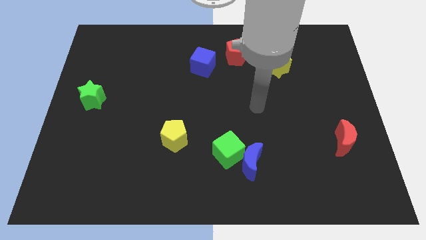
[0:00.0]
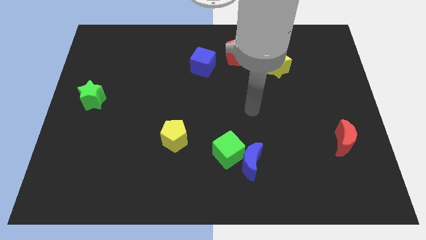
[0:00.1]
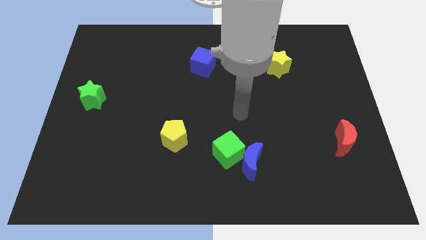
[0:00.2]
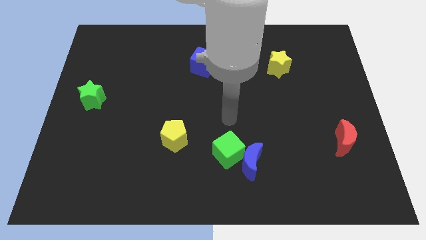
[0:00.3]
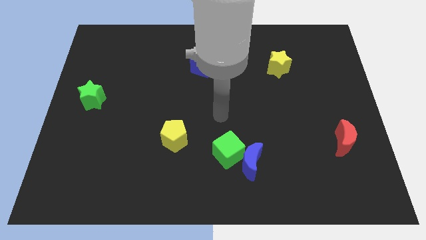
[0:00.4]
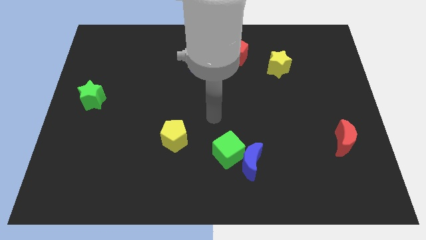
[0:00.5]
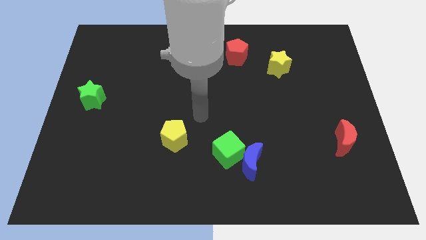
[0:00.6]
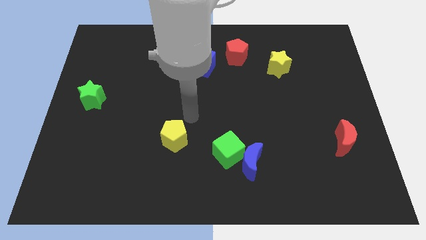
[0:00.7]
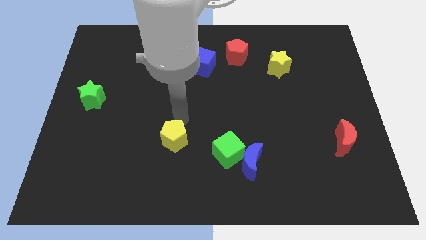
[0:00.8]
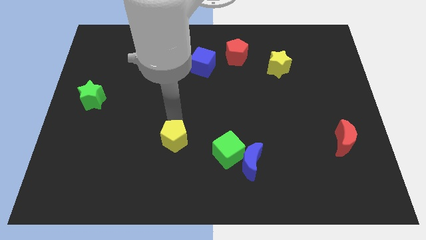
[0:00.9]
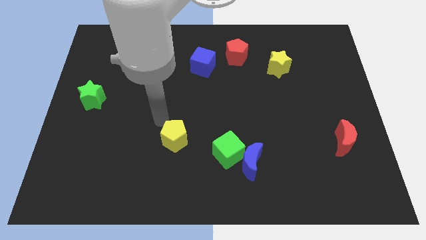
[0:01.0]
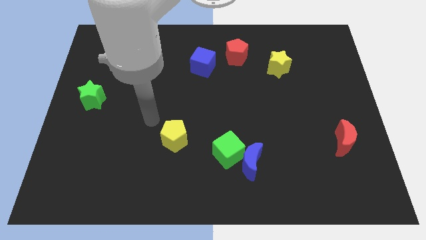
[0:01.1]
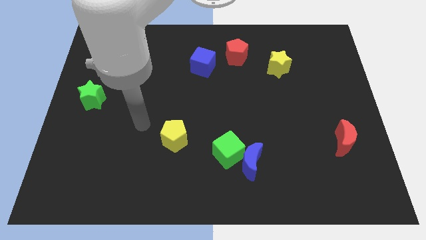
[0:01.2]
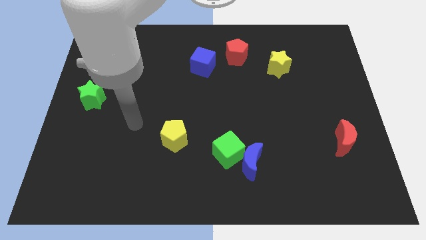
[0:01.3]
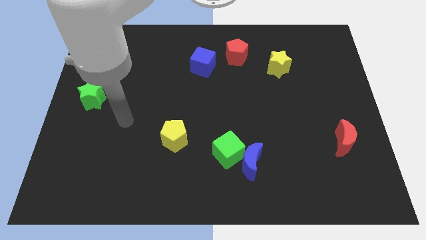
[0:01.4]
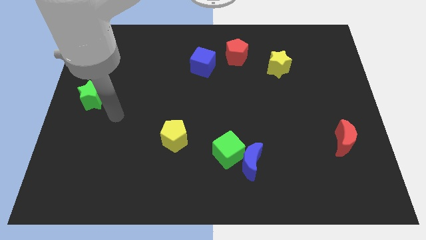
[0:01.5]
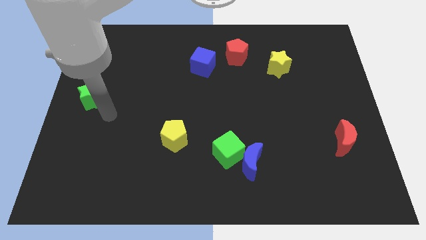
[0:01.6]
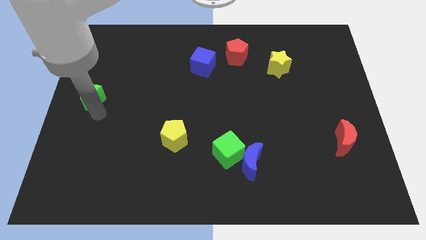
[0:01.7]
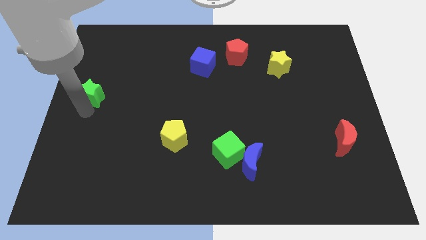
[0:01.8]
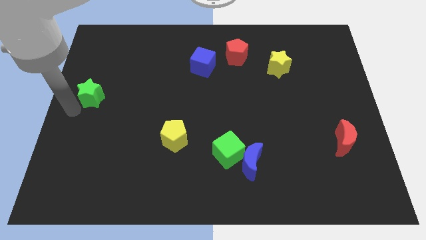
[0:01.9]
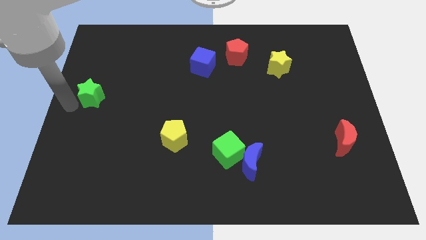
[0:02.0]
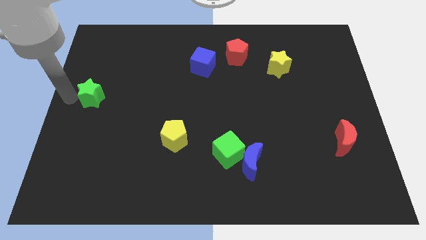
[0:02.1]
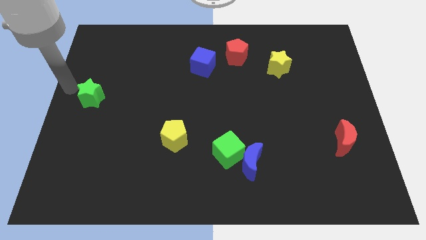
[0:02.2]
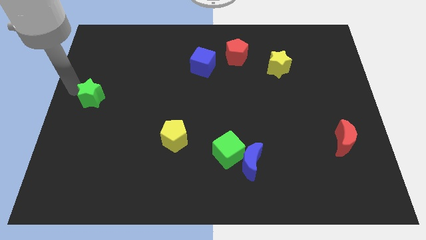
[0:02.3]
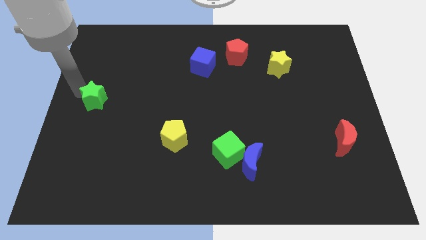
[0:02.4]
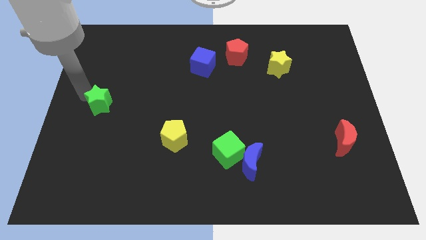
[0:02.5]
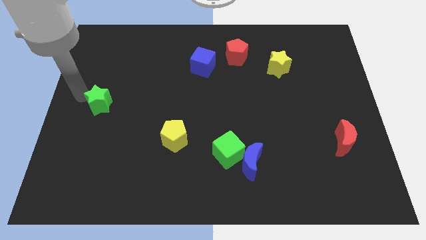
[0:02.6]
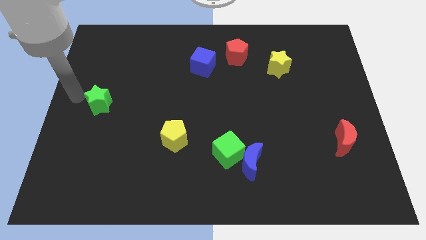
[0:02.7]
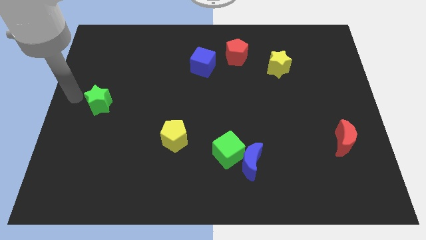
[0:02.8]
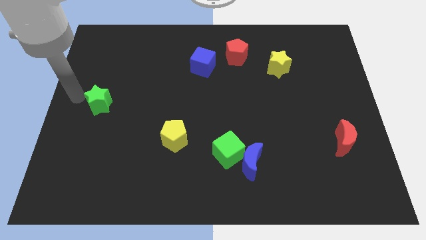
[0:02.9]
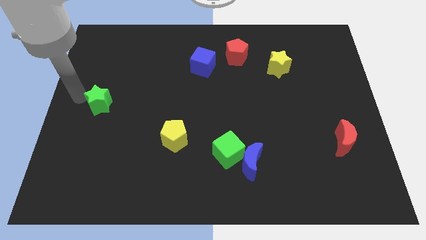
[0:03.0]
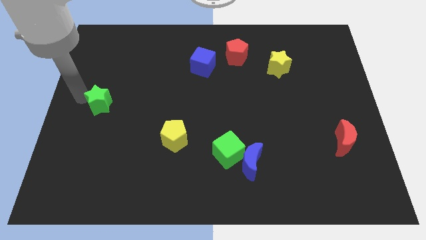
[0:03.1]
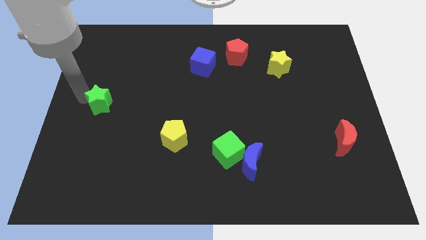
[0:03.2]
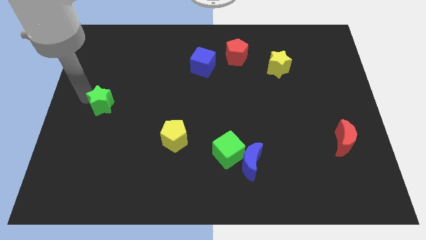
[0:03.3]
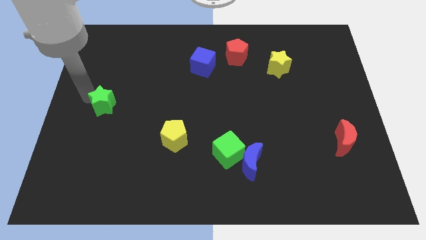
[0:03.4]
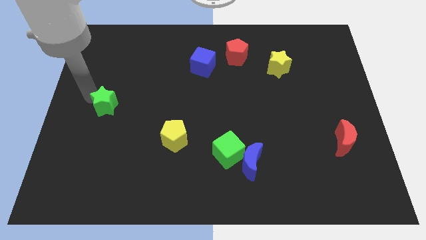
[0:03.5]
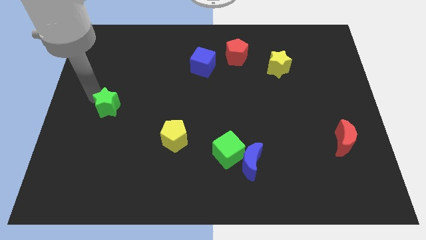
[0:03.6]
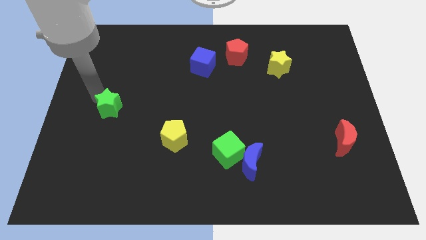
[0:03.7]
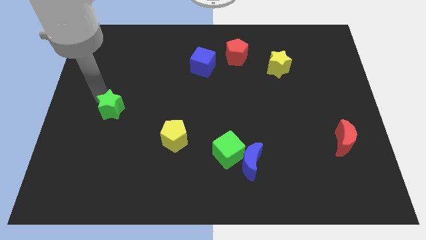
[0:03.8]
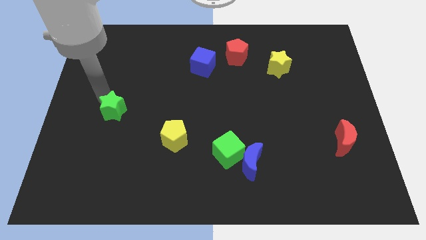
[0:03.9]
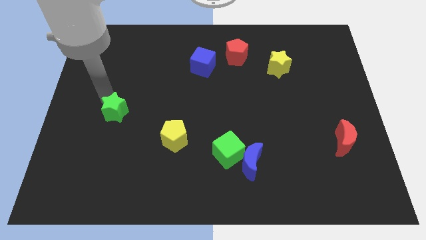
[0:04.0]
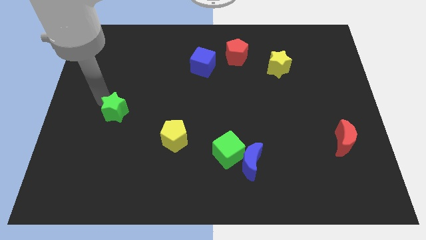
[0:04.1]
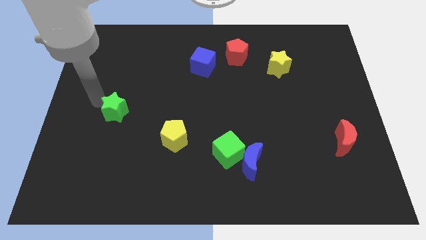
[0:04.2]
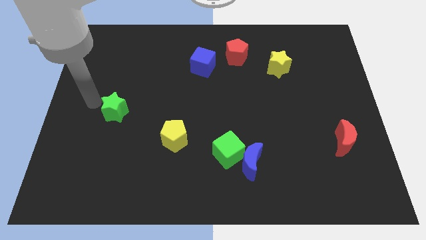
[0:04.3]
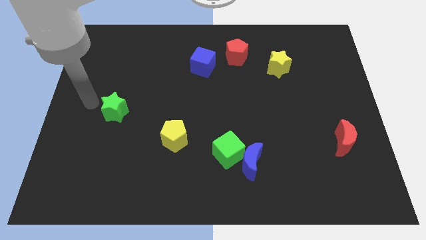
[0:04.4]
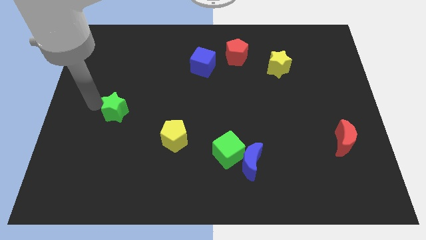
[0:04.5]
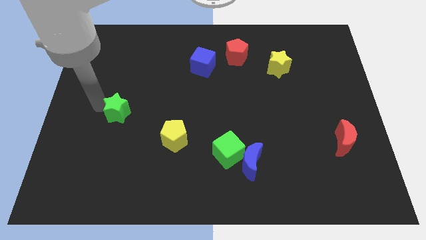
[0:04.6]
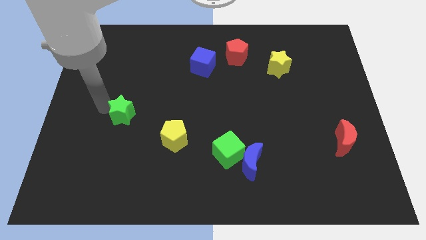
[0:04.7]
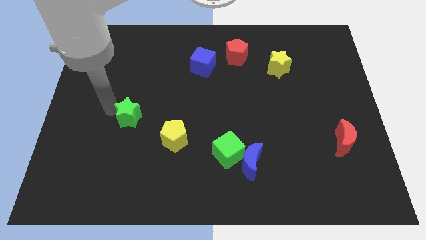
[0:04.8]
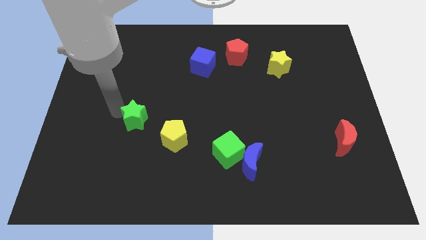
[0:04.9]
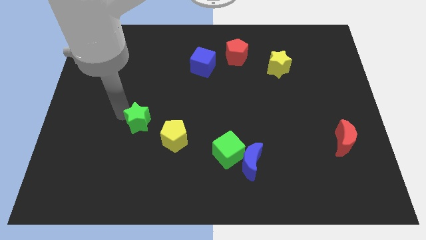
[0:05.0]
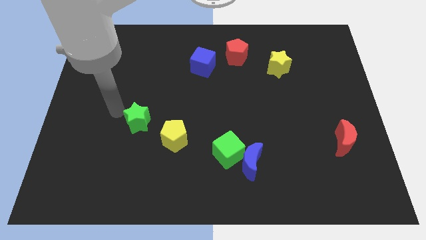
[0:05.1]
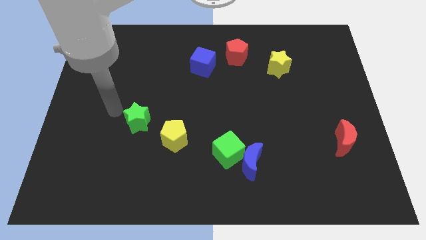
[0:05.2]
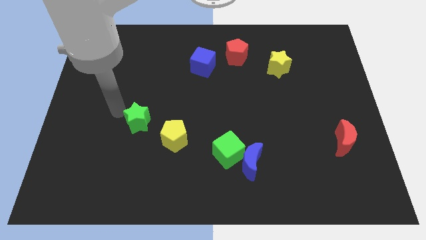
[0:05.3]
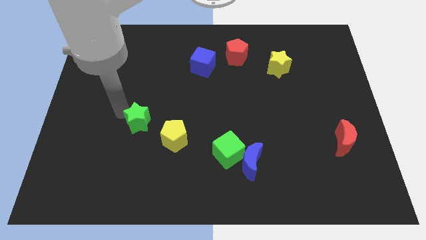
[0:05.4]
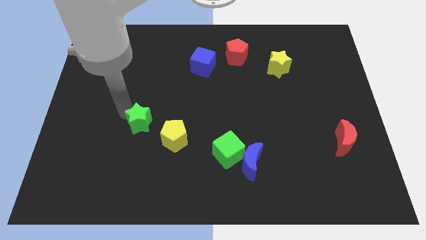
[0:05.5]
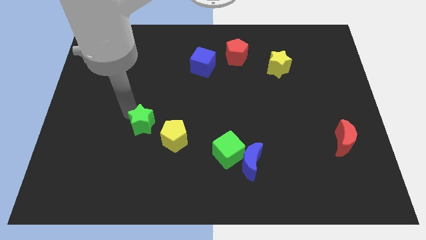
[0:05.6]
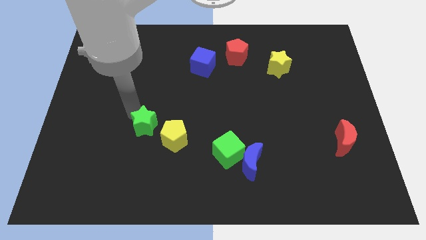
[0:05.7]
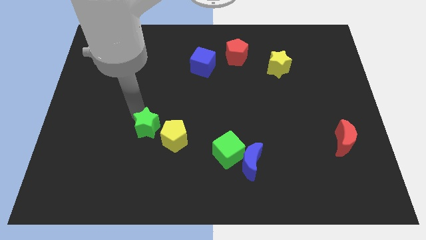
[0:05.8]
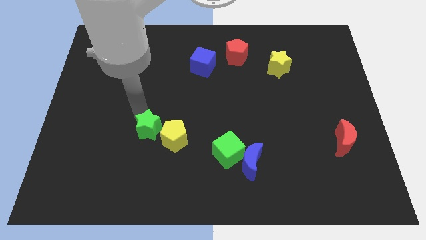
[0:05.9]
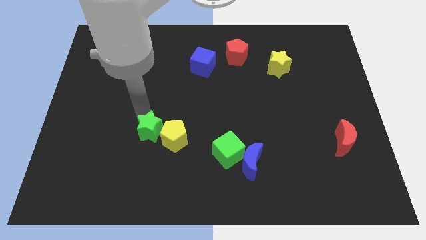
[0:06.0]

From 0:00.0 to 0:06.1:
slide the green star towards the yellow pentagon
